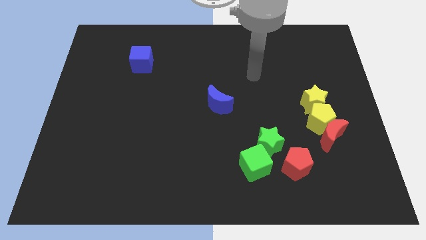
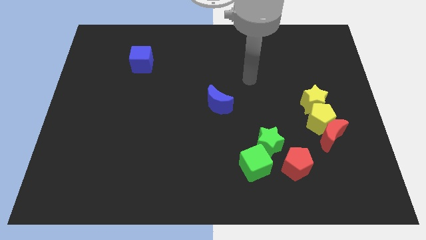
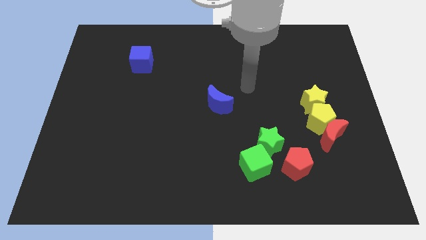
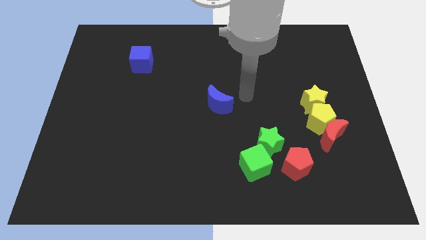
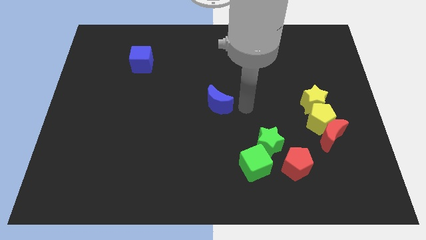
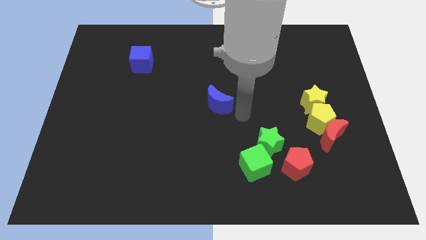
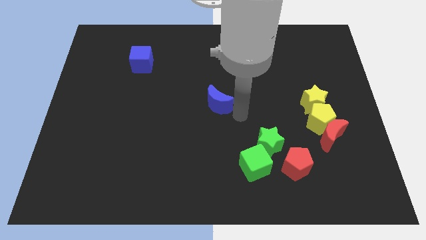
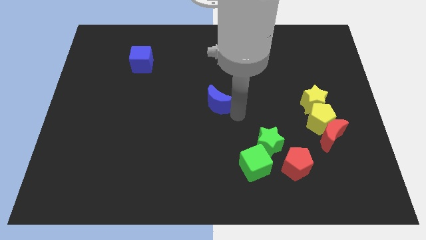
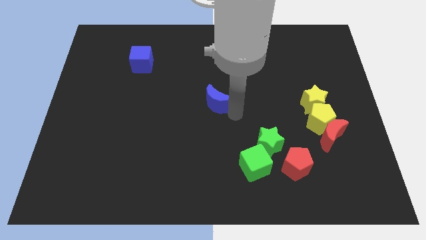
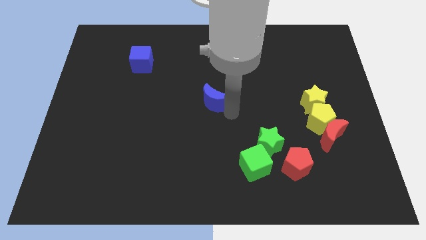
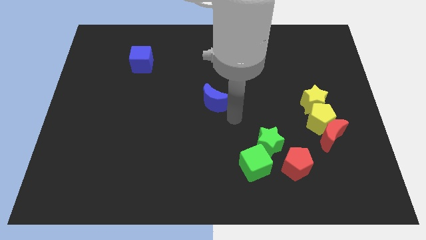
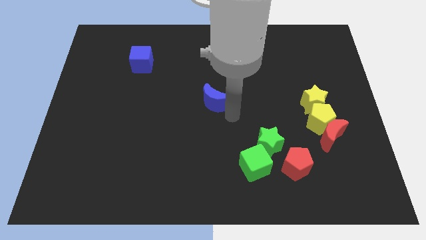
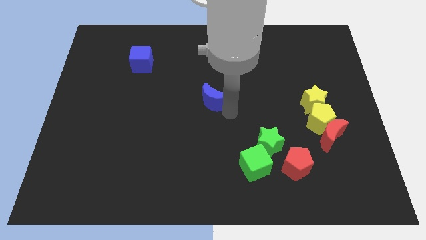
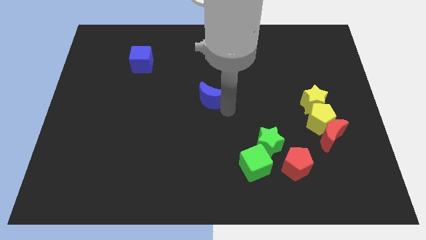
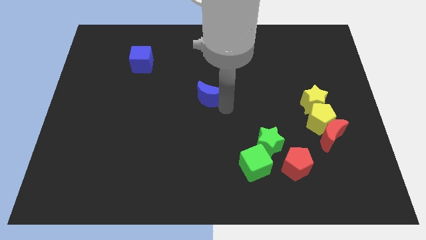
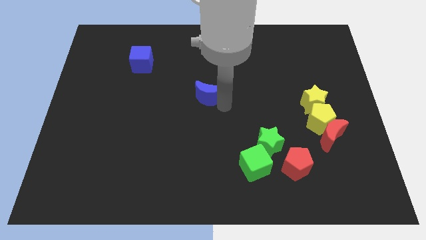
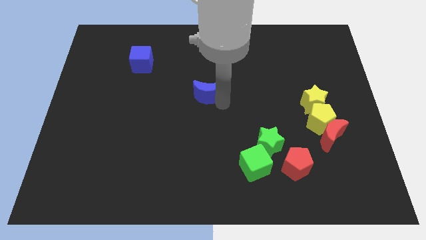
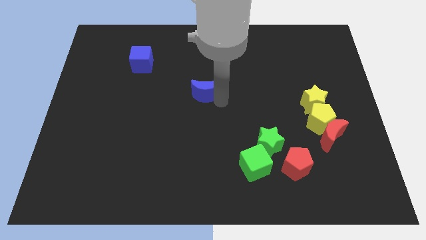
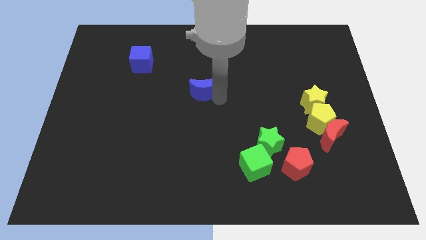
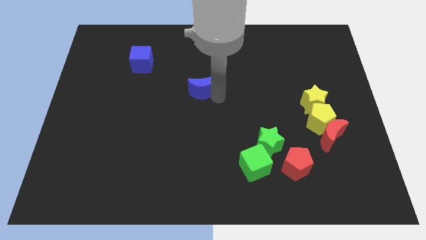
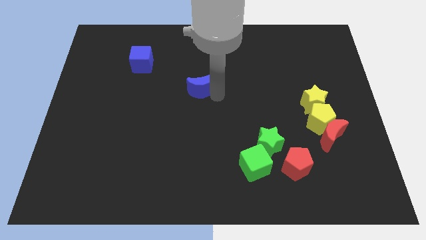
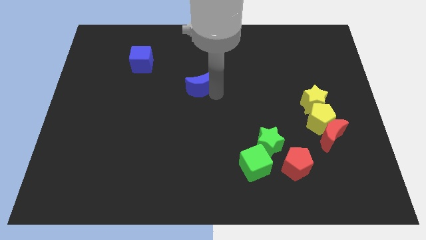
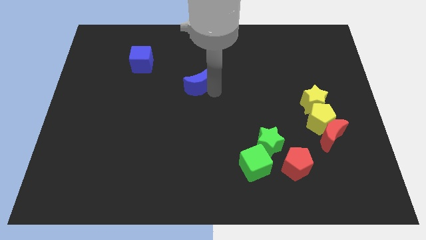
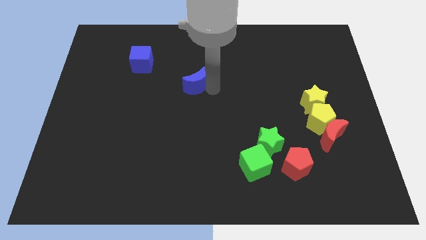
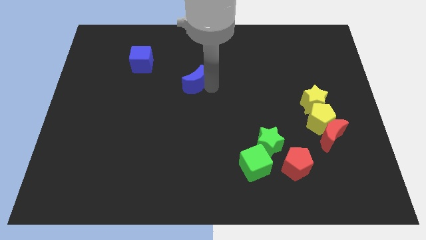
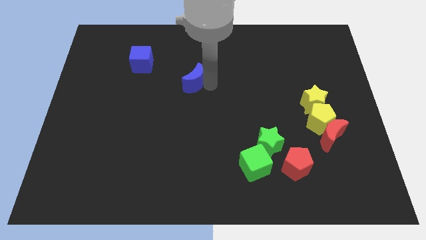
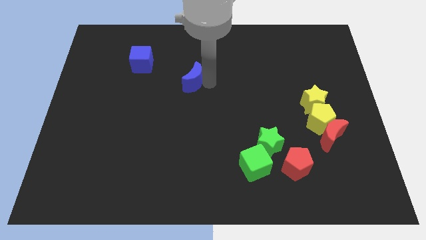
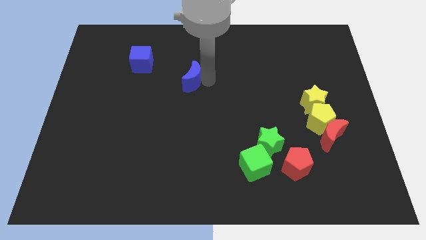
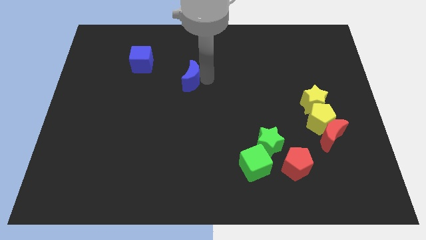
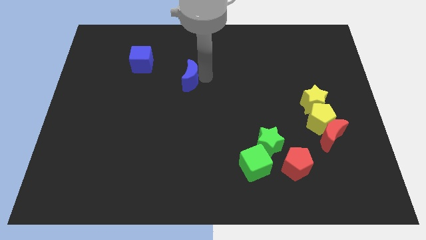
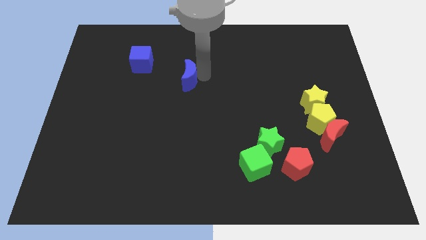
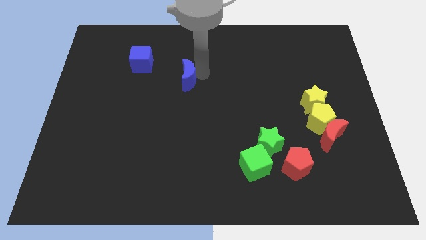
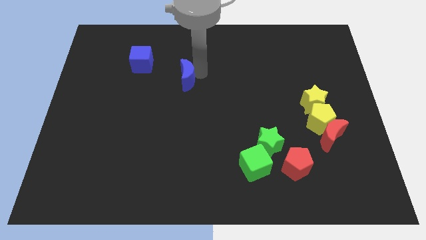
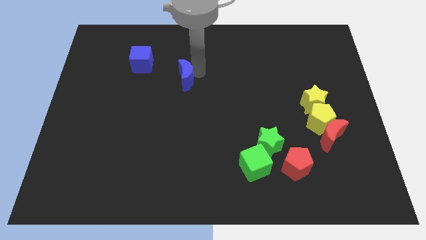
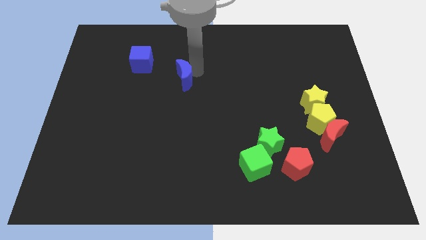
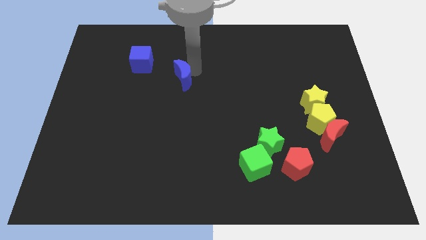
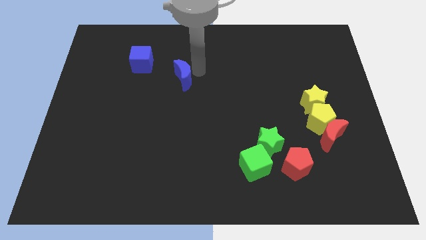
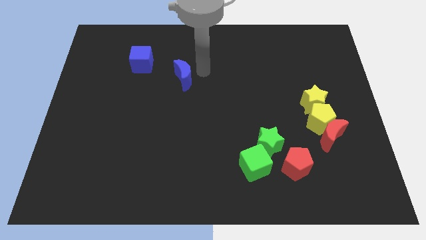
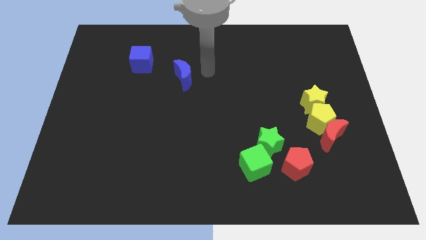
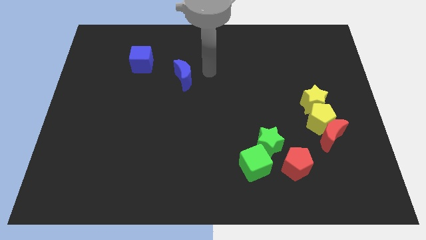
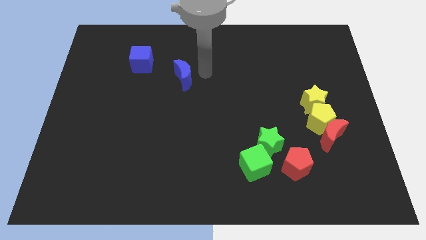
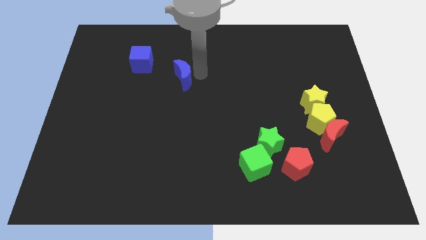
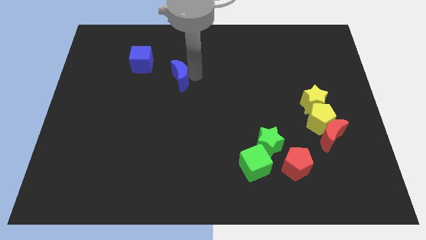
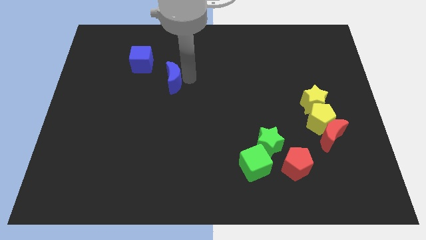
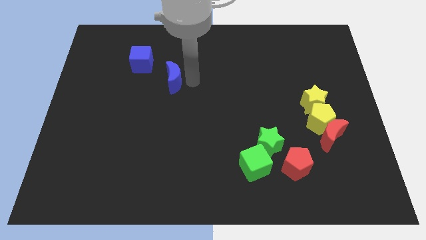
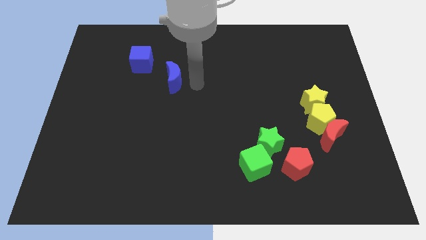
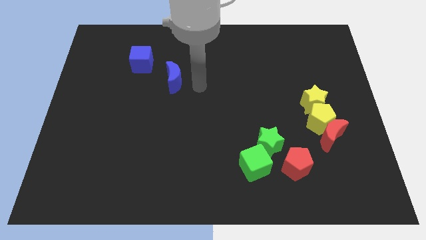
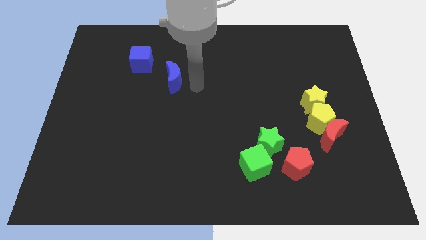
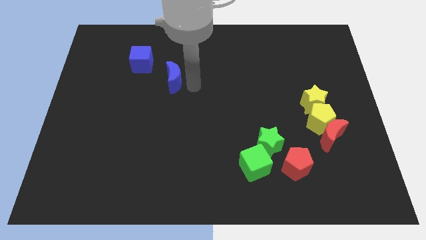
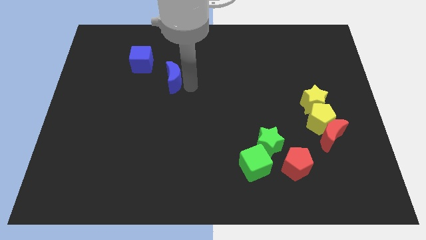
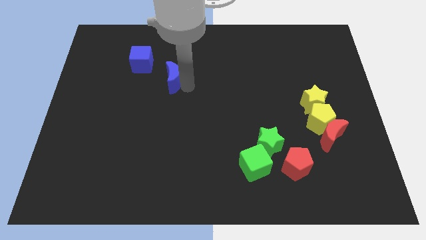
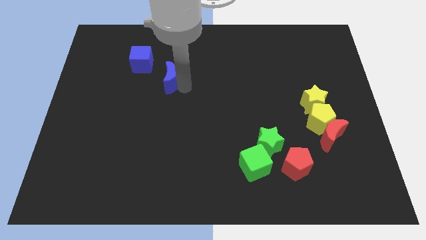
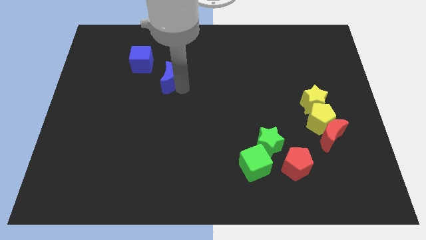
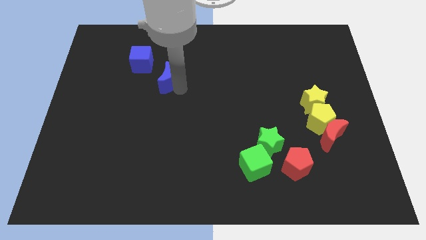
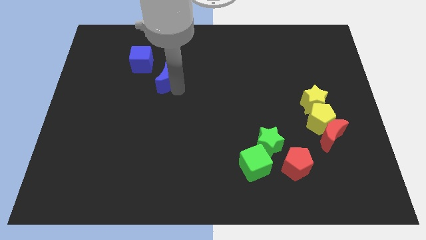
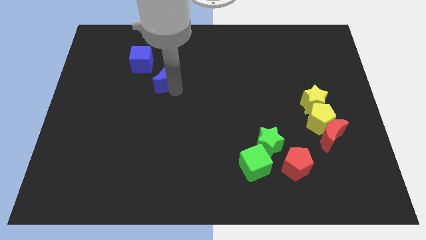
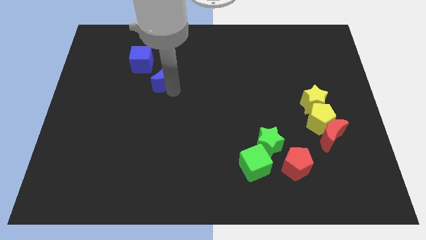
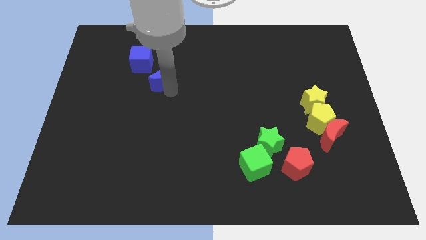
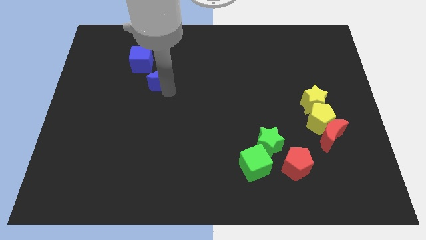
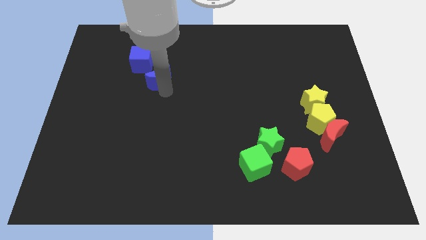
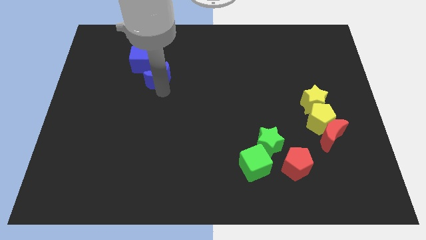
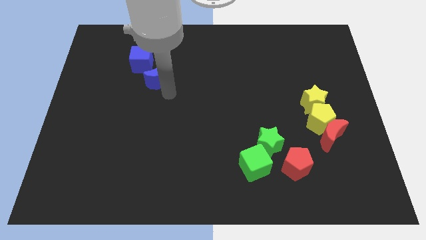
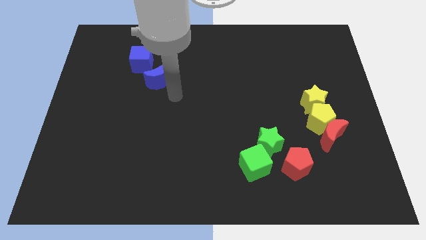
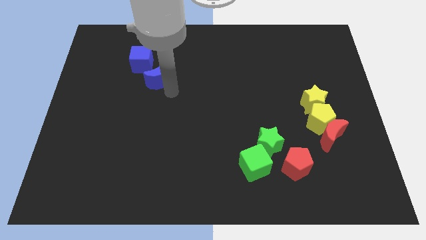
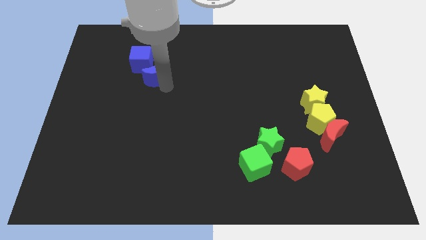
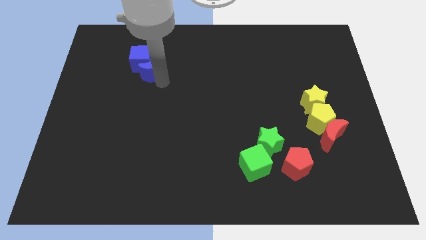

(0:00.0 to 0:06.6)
slide the blue moon close to the blue cube
